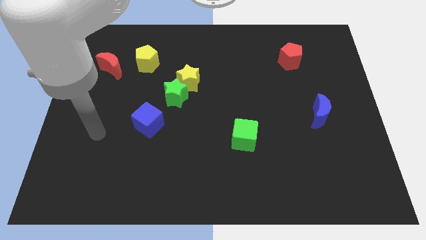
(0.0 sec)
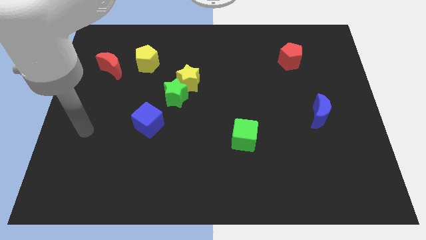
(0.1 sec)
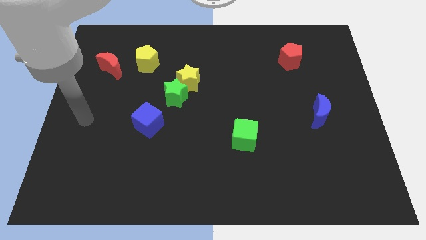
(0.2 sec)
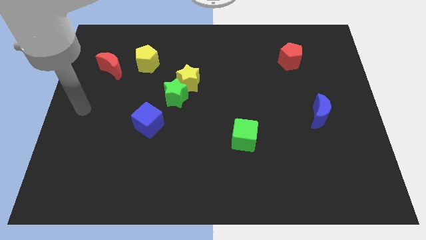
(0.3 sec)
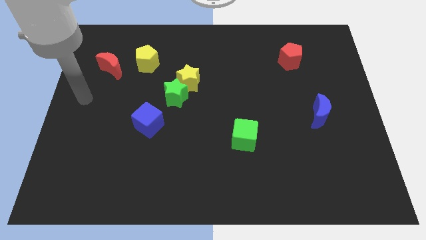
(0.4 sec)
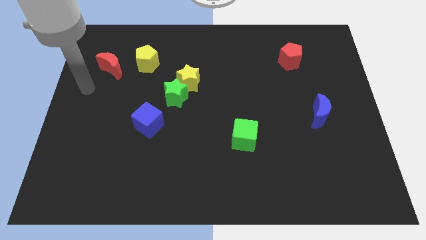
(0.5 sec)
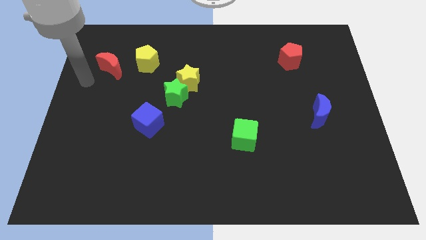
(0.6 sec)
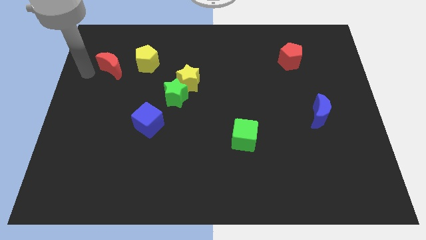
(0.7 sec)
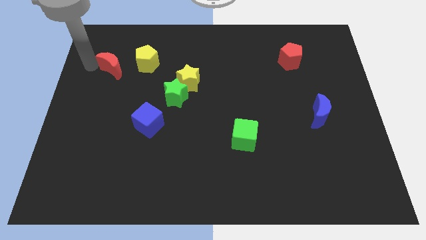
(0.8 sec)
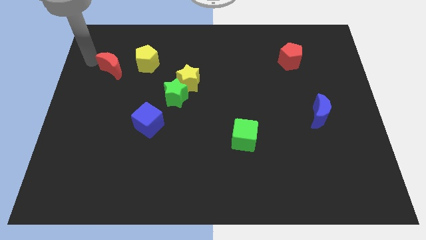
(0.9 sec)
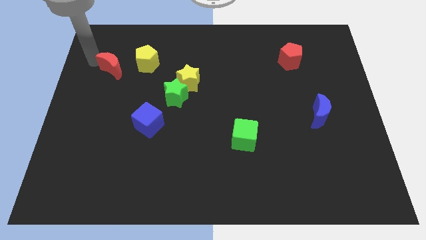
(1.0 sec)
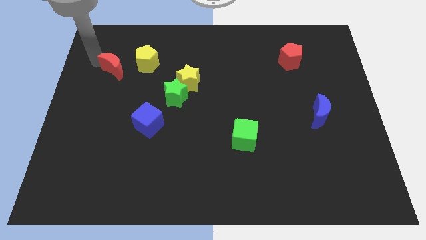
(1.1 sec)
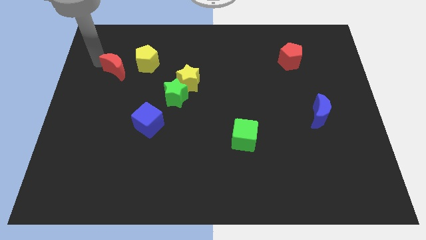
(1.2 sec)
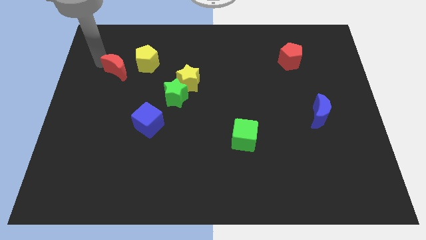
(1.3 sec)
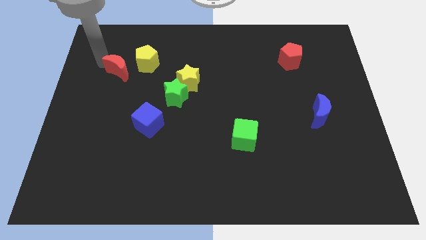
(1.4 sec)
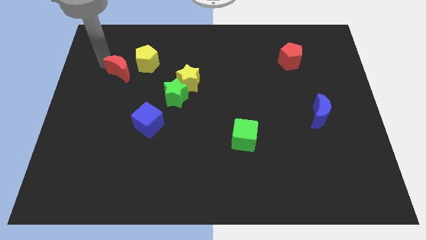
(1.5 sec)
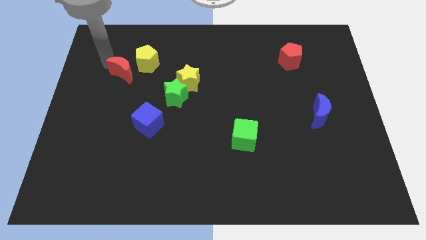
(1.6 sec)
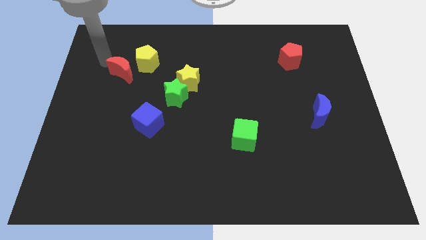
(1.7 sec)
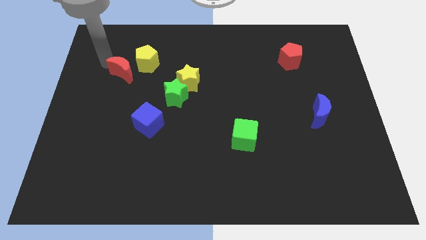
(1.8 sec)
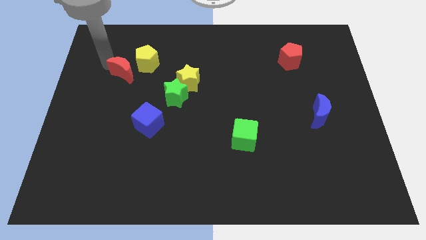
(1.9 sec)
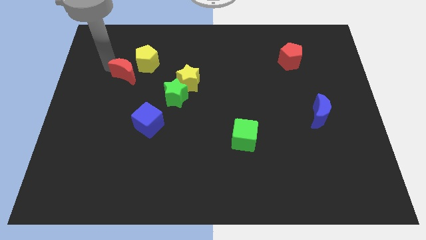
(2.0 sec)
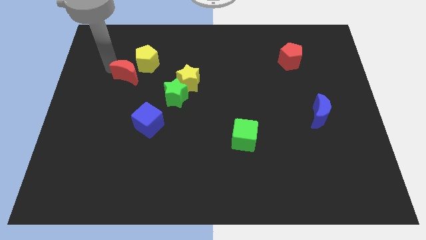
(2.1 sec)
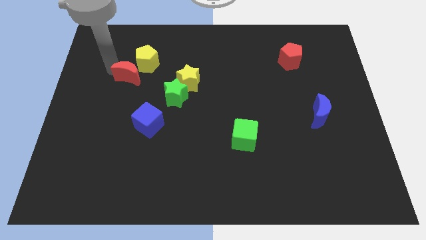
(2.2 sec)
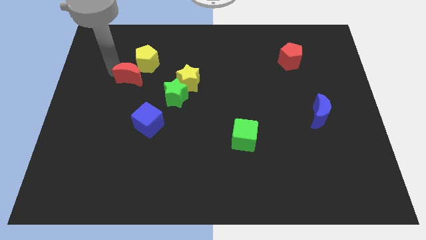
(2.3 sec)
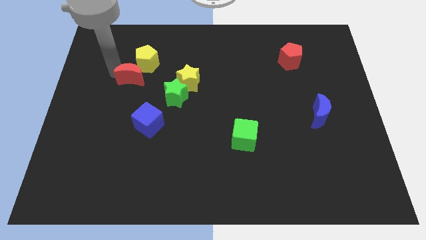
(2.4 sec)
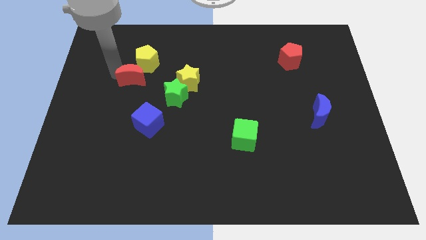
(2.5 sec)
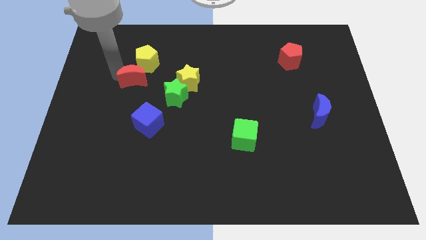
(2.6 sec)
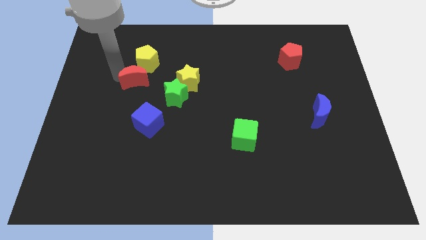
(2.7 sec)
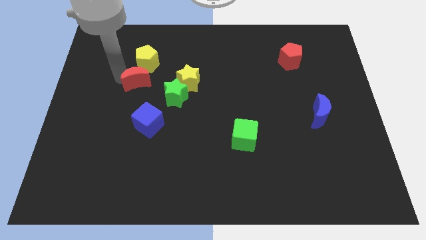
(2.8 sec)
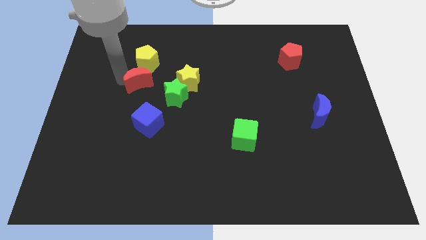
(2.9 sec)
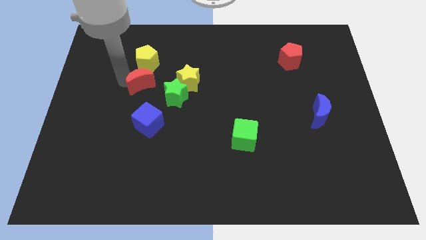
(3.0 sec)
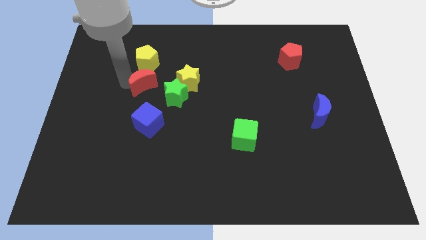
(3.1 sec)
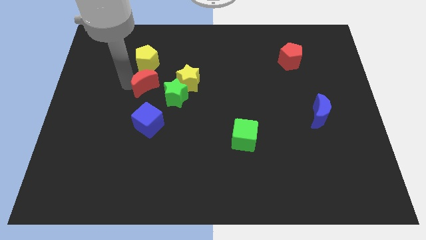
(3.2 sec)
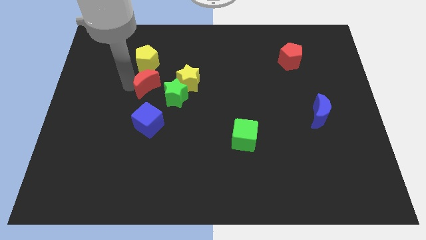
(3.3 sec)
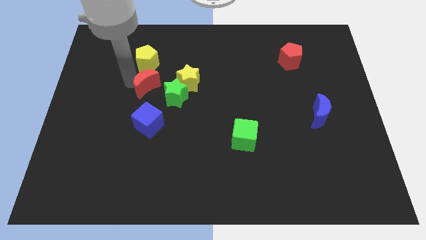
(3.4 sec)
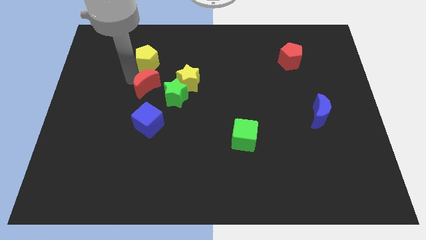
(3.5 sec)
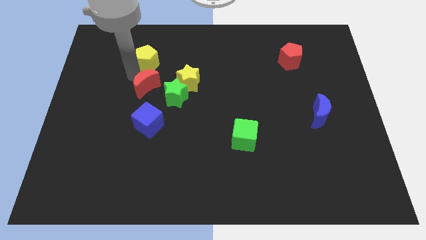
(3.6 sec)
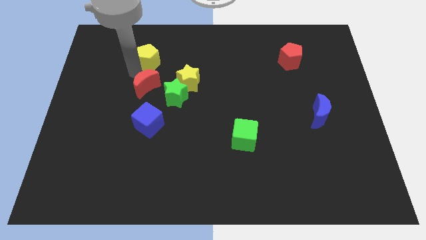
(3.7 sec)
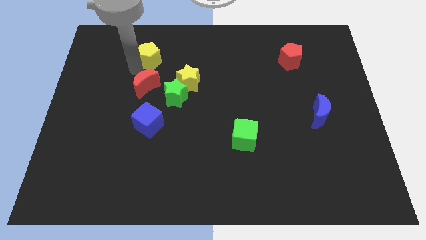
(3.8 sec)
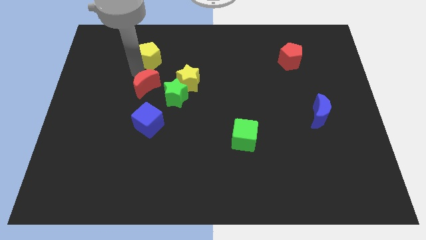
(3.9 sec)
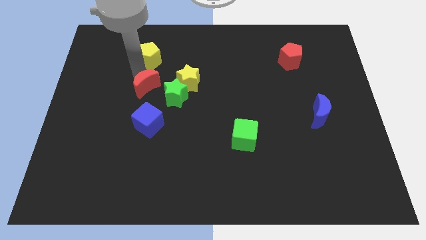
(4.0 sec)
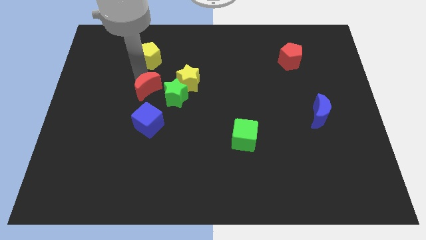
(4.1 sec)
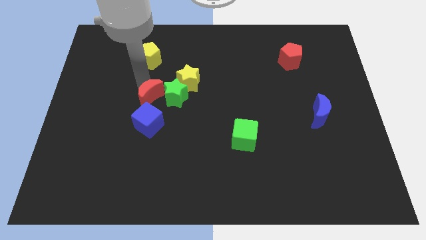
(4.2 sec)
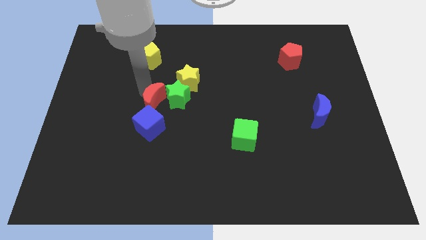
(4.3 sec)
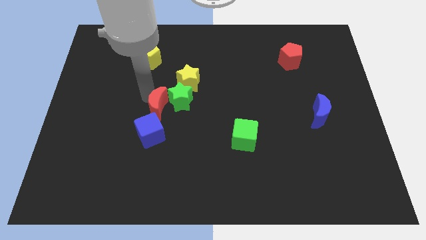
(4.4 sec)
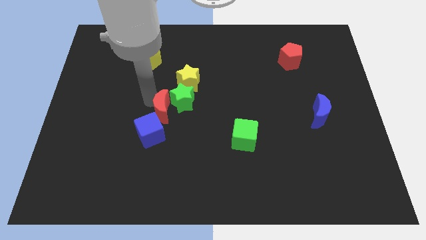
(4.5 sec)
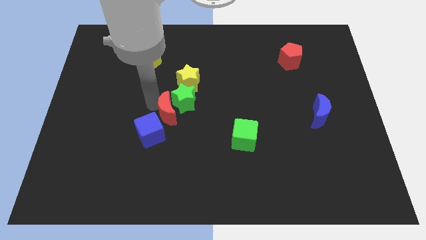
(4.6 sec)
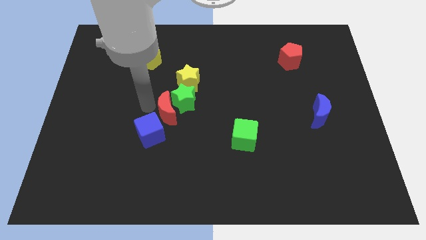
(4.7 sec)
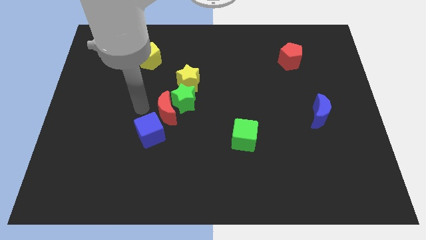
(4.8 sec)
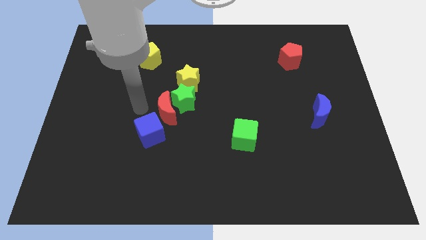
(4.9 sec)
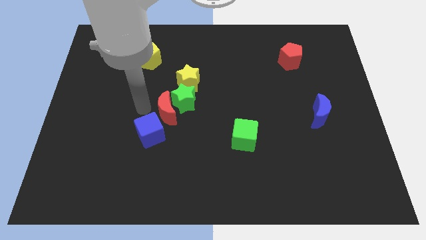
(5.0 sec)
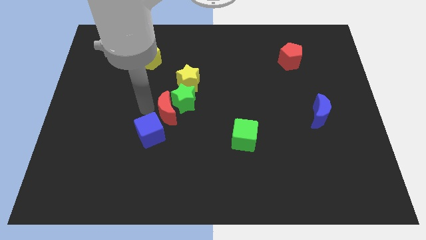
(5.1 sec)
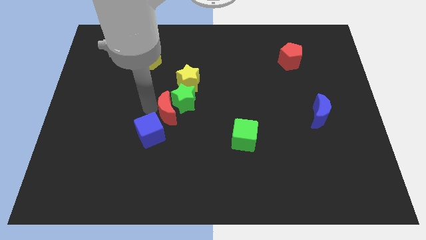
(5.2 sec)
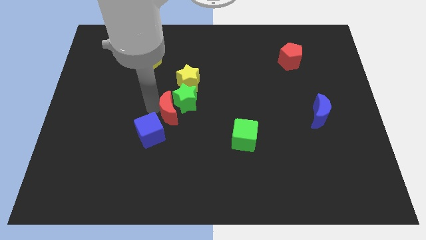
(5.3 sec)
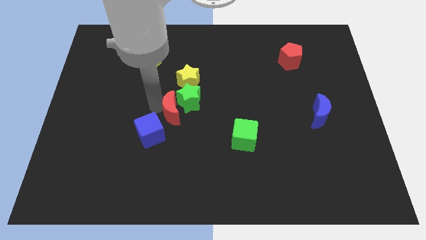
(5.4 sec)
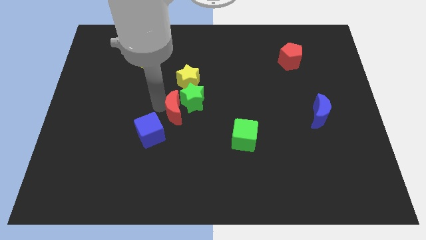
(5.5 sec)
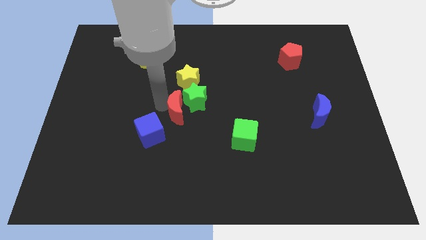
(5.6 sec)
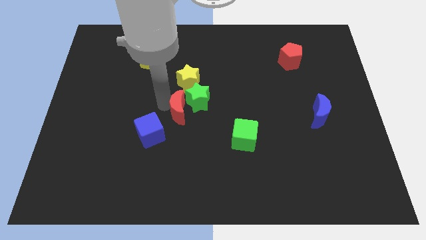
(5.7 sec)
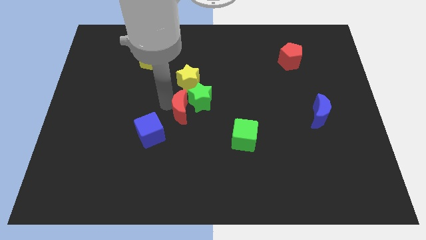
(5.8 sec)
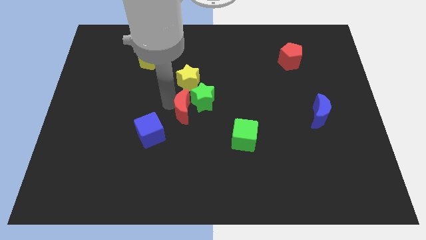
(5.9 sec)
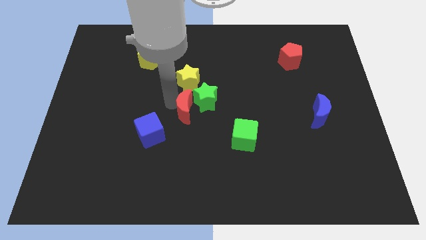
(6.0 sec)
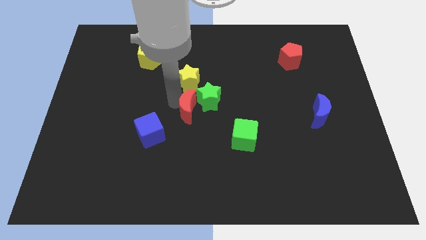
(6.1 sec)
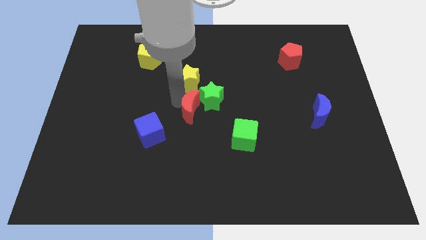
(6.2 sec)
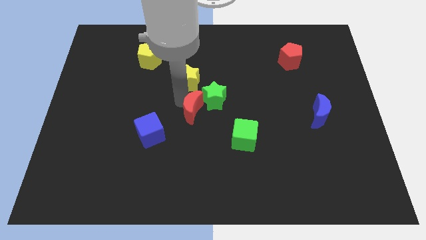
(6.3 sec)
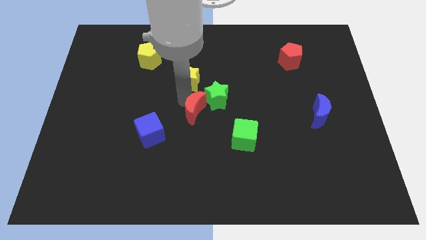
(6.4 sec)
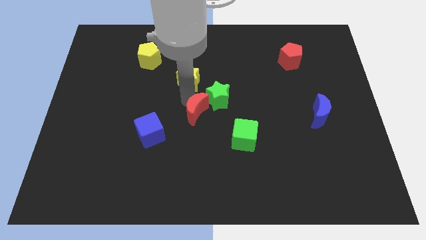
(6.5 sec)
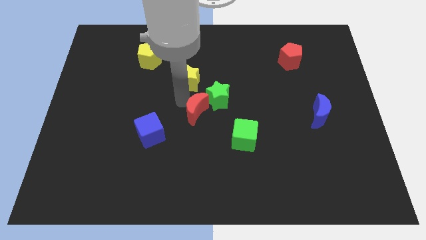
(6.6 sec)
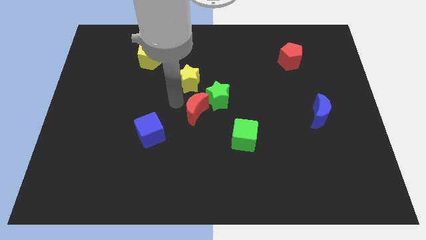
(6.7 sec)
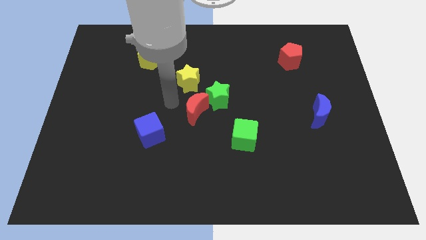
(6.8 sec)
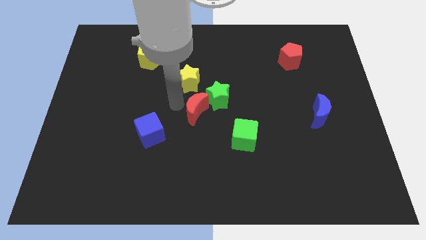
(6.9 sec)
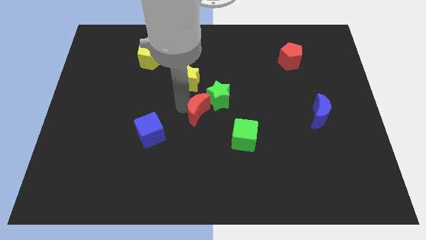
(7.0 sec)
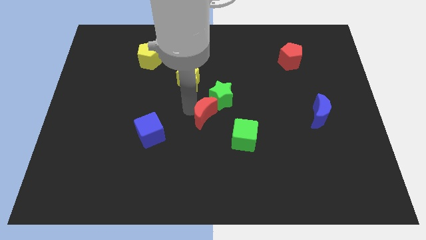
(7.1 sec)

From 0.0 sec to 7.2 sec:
move the red moon to the top left side of the green cube

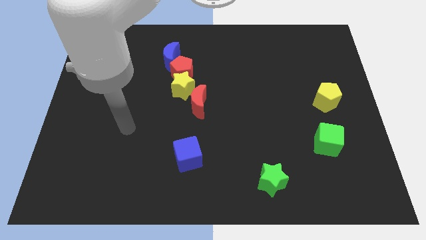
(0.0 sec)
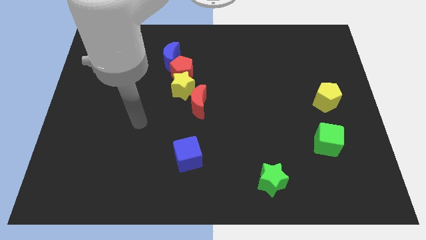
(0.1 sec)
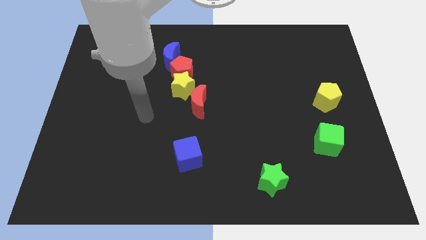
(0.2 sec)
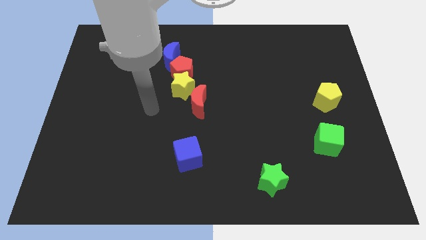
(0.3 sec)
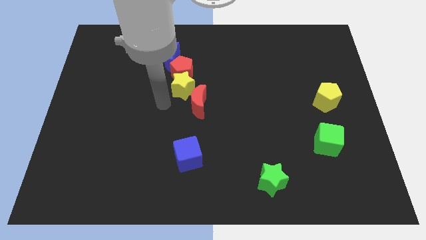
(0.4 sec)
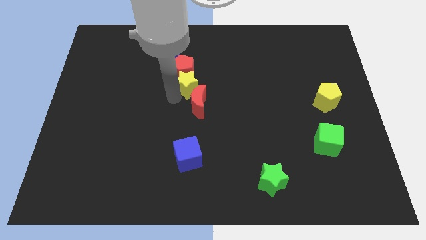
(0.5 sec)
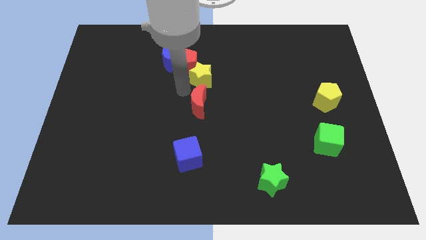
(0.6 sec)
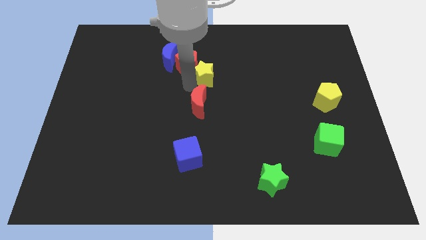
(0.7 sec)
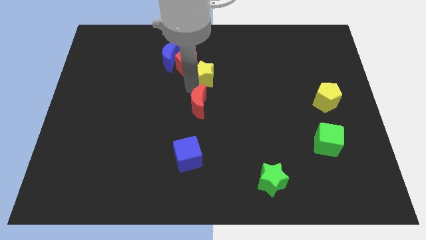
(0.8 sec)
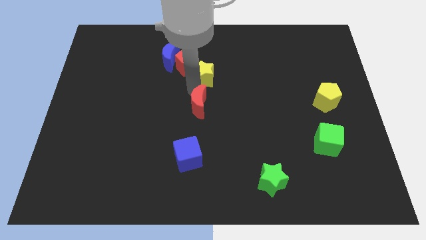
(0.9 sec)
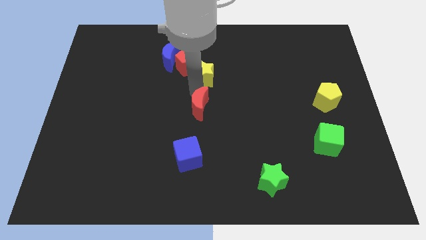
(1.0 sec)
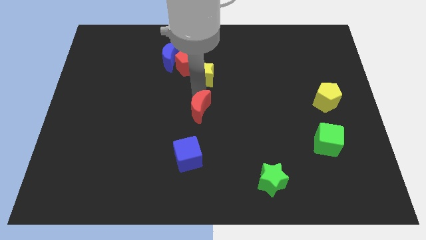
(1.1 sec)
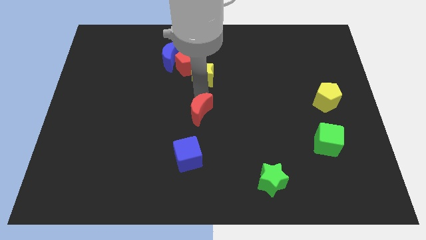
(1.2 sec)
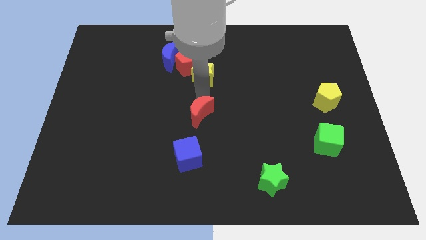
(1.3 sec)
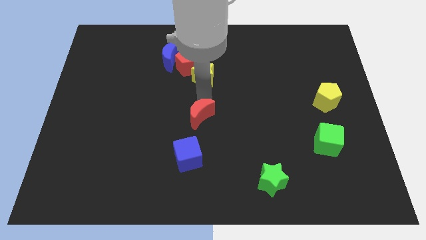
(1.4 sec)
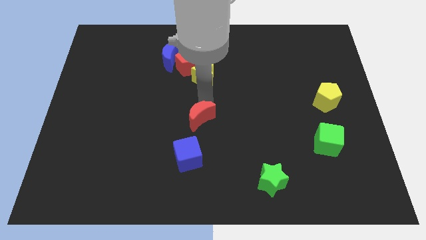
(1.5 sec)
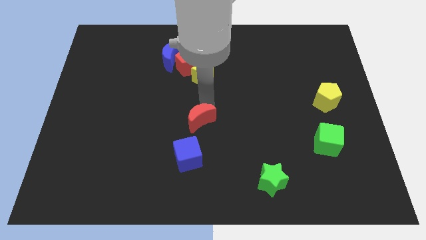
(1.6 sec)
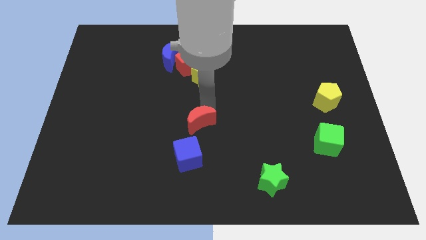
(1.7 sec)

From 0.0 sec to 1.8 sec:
slide the red moon diagonally up and to the right of the blue cube
